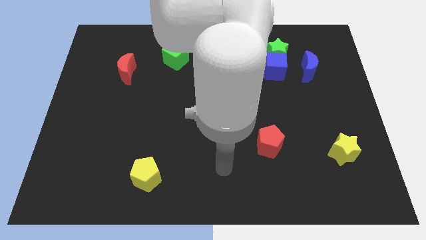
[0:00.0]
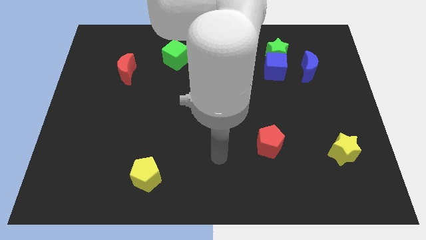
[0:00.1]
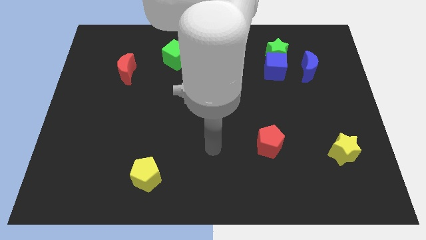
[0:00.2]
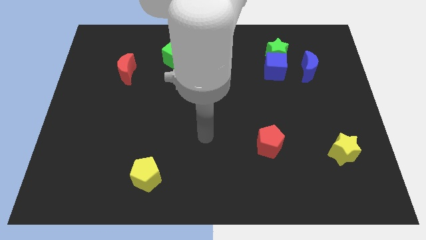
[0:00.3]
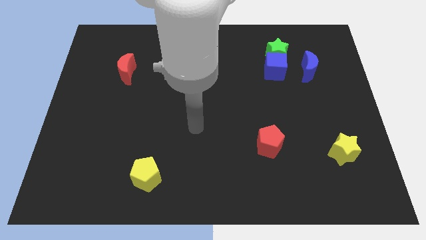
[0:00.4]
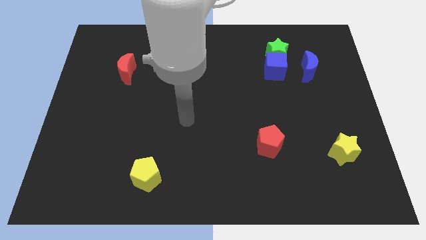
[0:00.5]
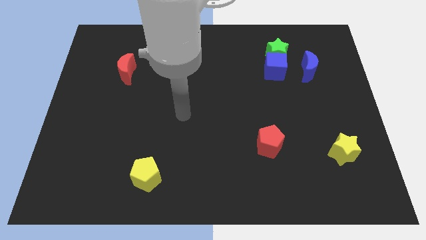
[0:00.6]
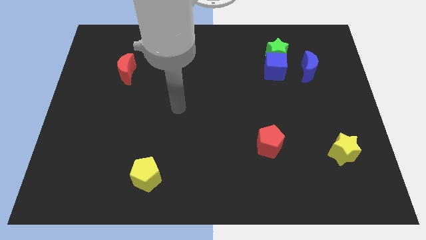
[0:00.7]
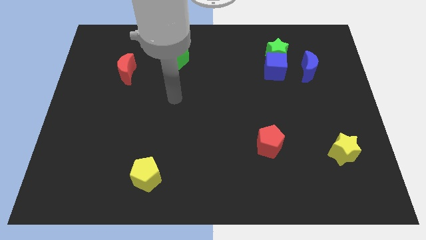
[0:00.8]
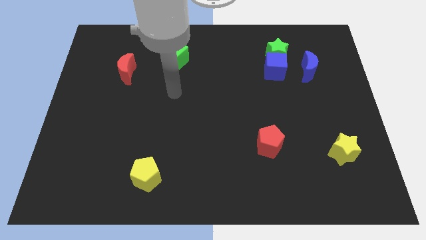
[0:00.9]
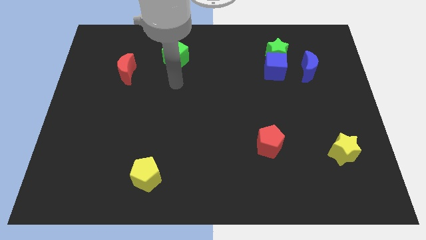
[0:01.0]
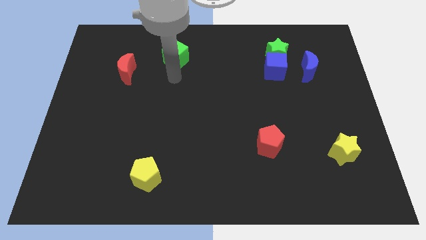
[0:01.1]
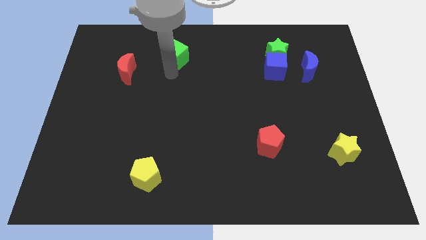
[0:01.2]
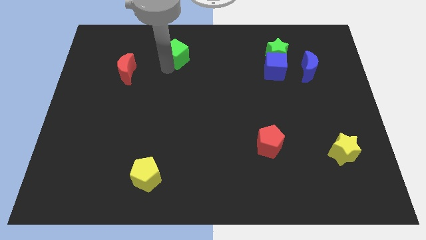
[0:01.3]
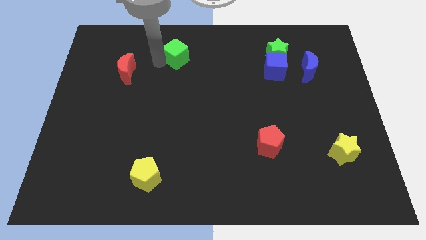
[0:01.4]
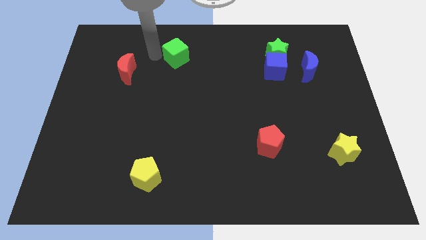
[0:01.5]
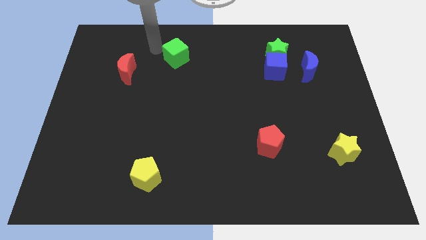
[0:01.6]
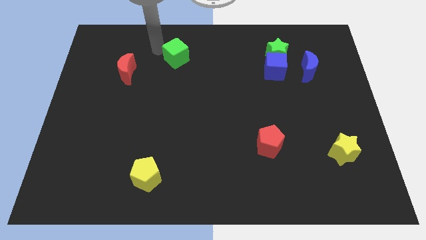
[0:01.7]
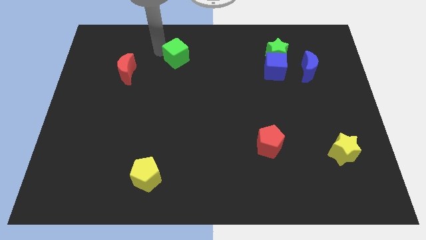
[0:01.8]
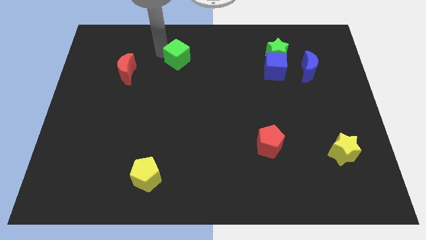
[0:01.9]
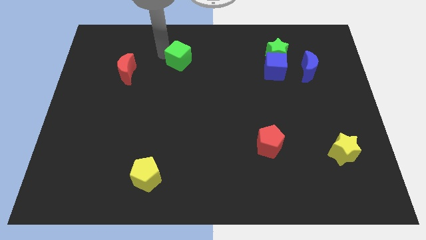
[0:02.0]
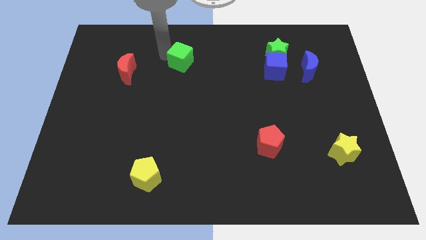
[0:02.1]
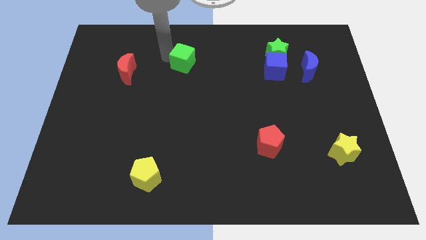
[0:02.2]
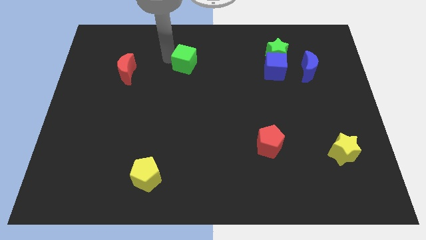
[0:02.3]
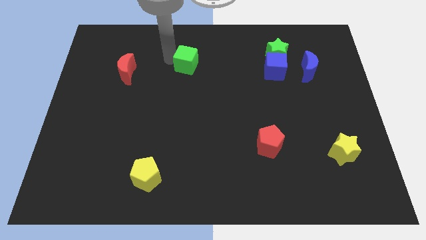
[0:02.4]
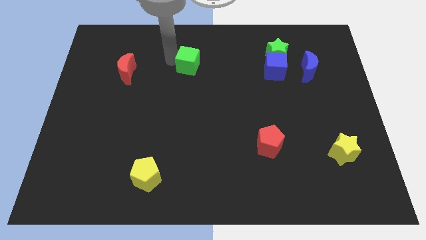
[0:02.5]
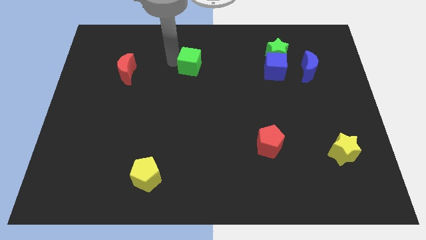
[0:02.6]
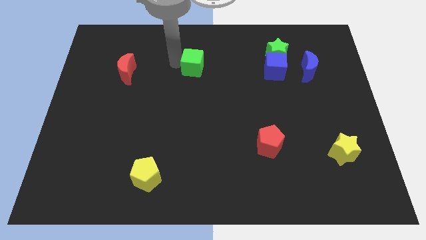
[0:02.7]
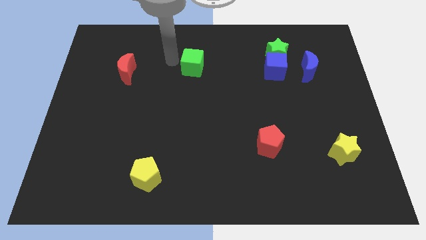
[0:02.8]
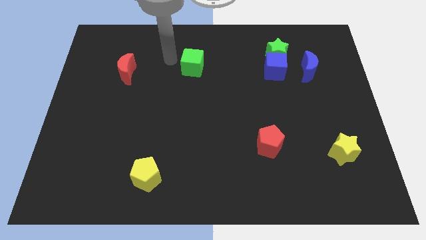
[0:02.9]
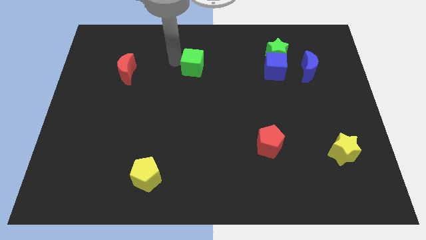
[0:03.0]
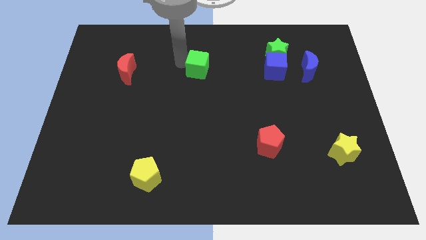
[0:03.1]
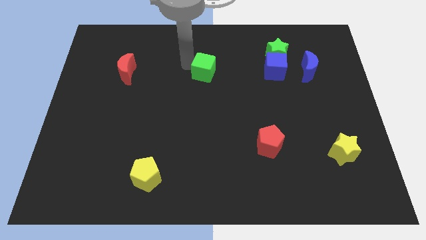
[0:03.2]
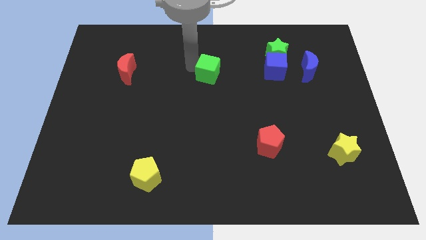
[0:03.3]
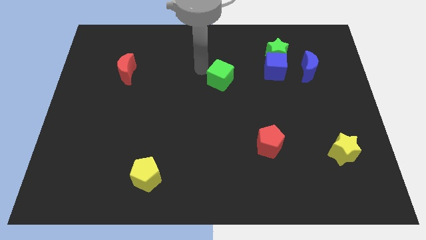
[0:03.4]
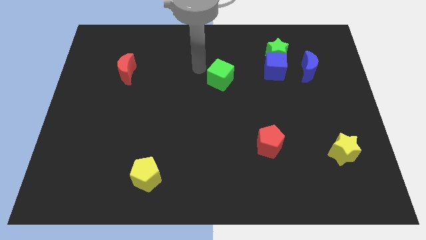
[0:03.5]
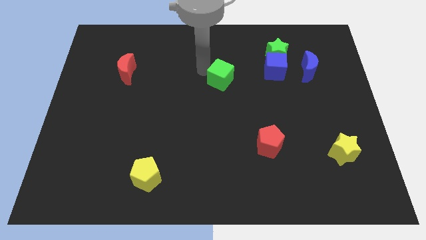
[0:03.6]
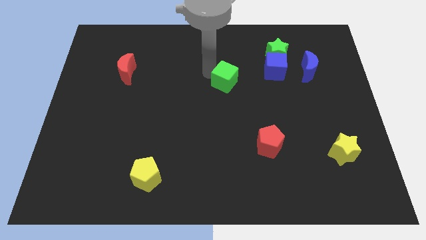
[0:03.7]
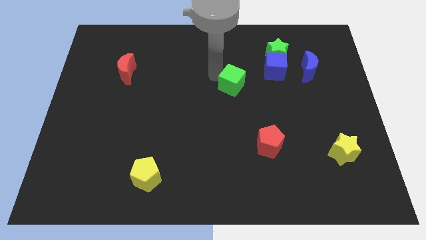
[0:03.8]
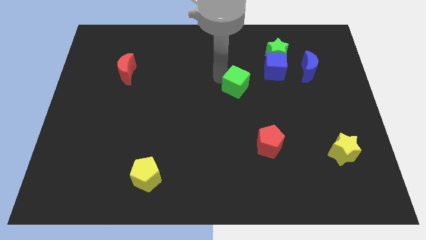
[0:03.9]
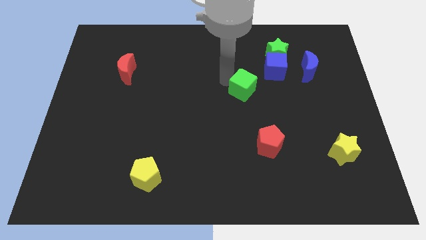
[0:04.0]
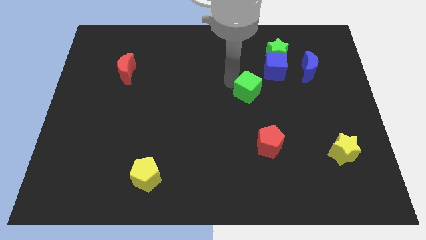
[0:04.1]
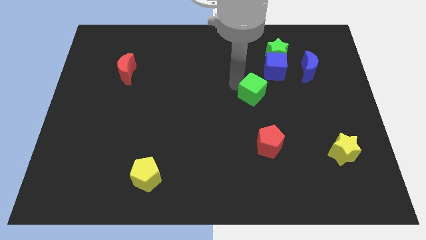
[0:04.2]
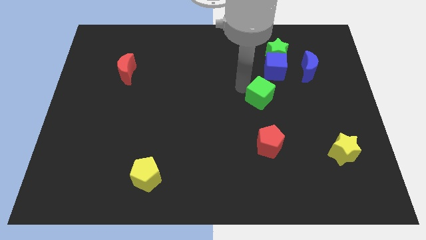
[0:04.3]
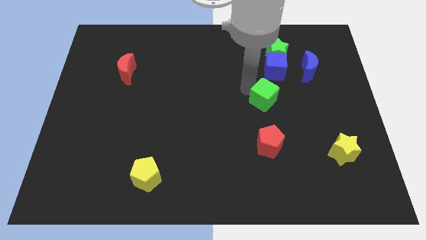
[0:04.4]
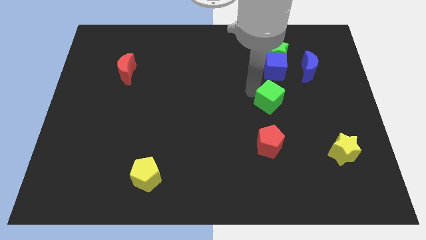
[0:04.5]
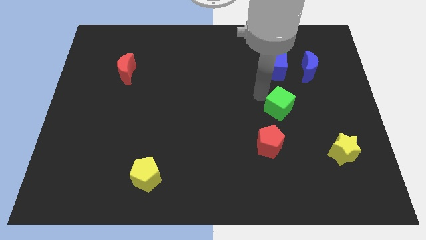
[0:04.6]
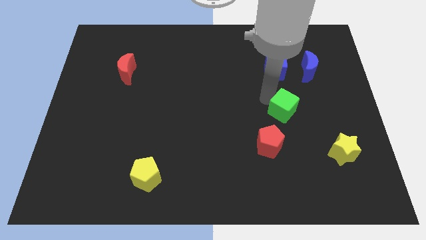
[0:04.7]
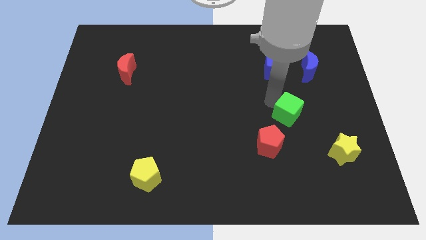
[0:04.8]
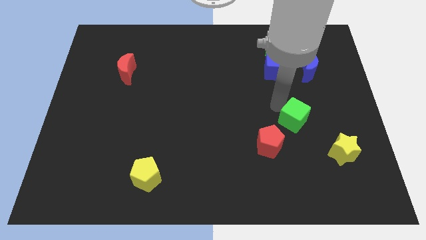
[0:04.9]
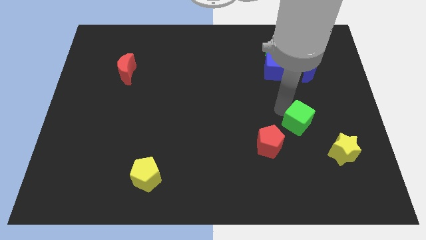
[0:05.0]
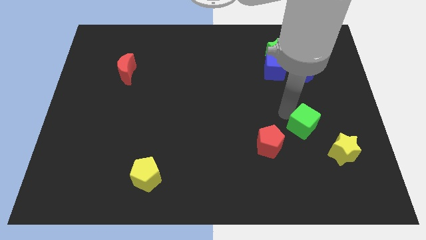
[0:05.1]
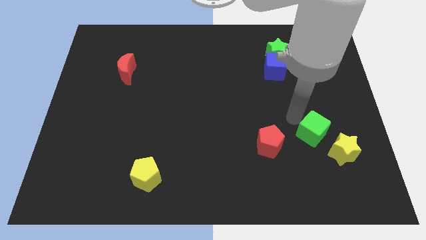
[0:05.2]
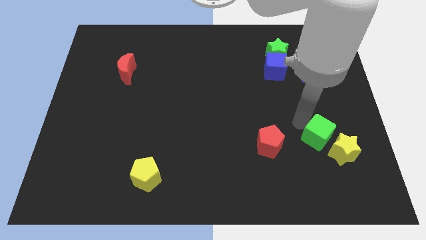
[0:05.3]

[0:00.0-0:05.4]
put the green cube to the yellow star

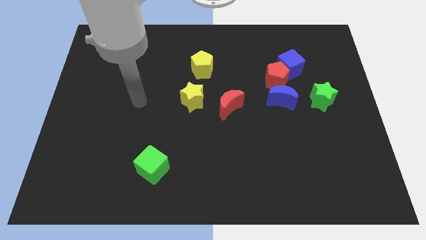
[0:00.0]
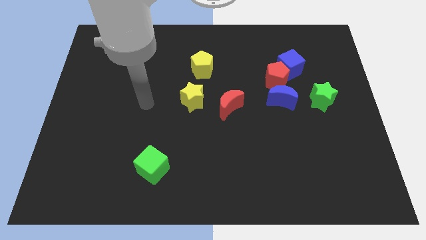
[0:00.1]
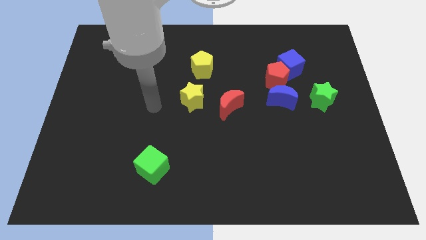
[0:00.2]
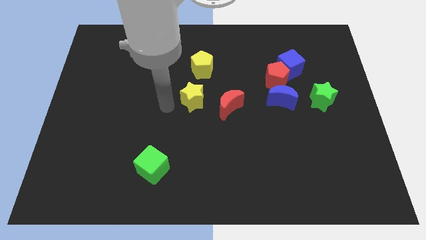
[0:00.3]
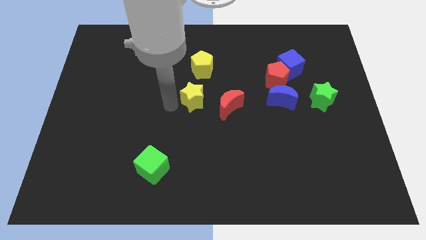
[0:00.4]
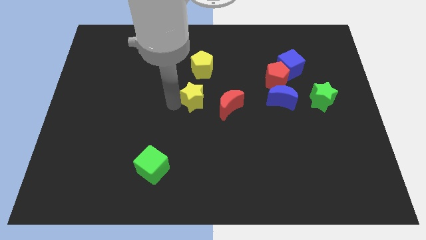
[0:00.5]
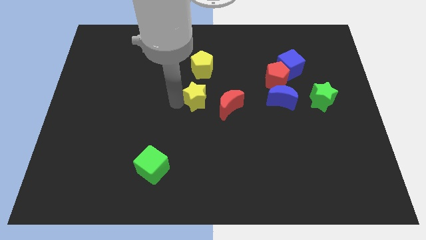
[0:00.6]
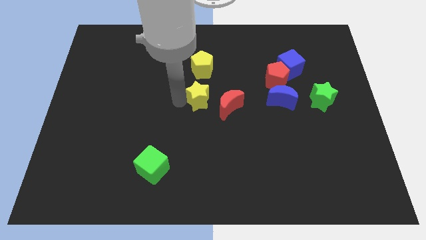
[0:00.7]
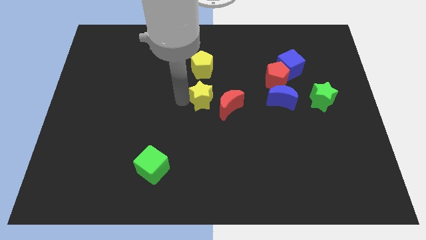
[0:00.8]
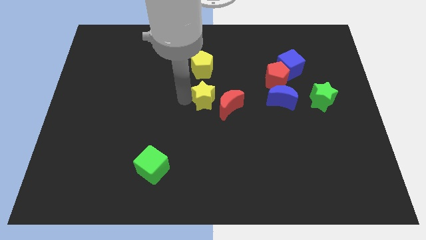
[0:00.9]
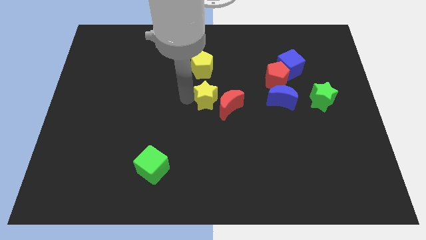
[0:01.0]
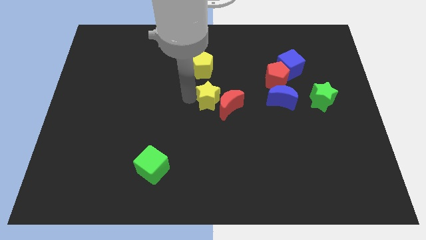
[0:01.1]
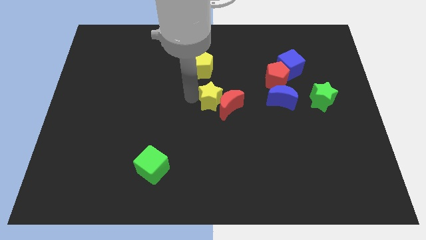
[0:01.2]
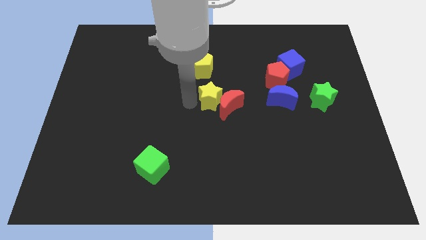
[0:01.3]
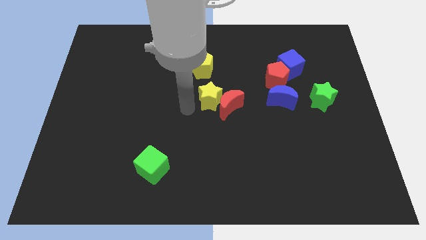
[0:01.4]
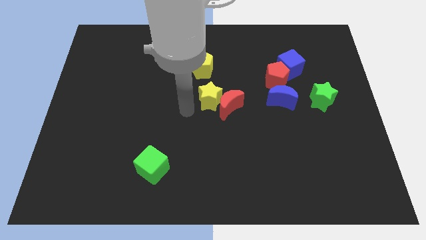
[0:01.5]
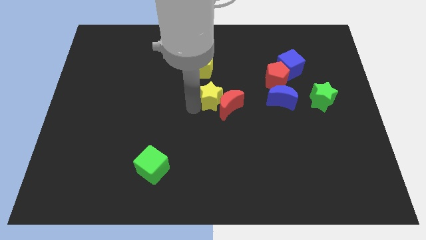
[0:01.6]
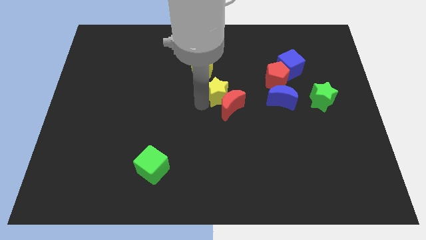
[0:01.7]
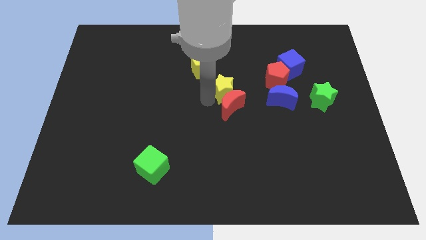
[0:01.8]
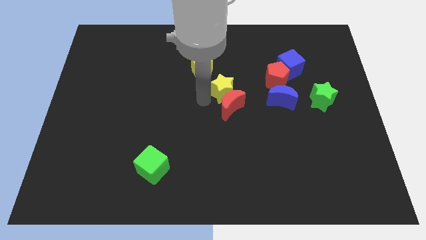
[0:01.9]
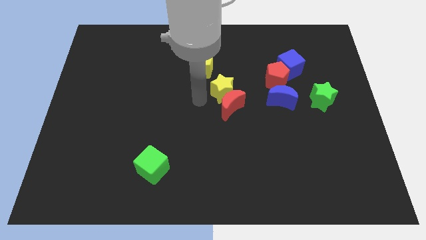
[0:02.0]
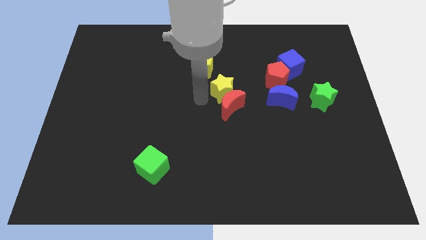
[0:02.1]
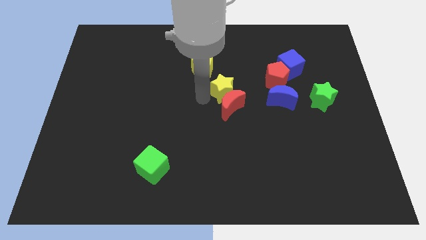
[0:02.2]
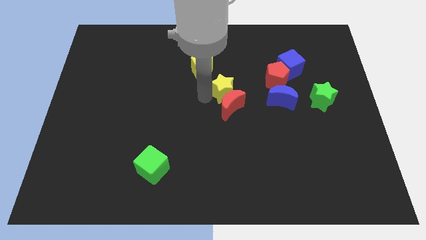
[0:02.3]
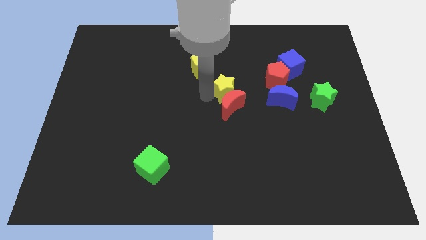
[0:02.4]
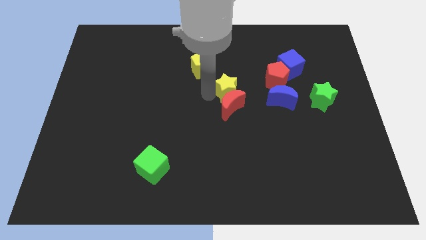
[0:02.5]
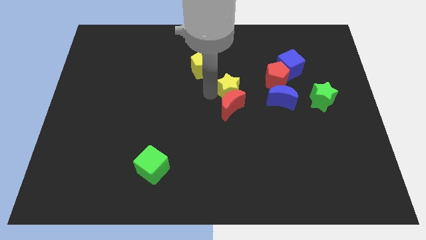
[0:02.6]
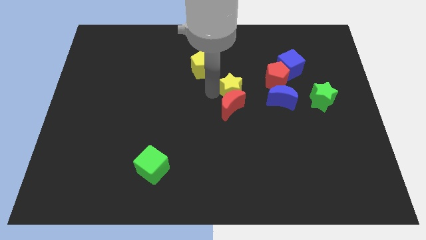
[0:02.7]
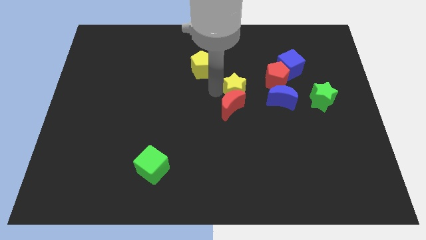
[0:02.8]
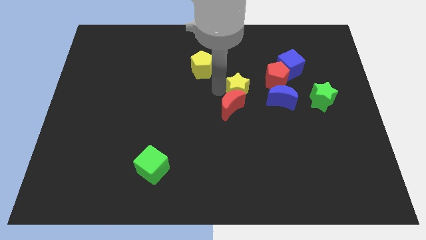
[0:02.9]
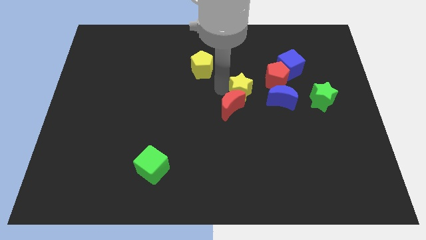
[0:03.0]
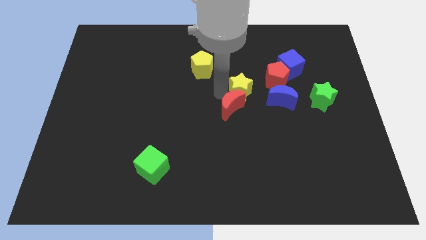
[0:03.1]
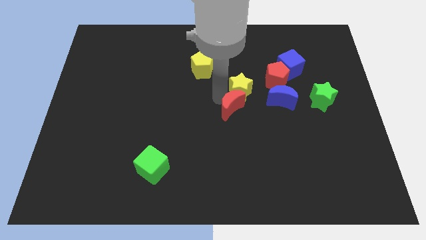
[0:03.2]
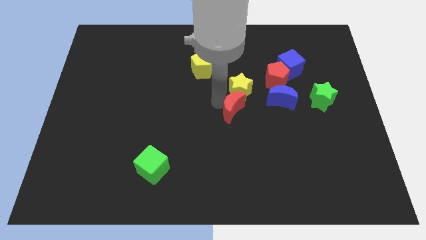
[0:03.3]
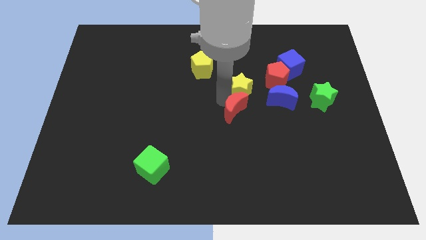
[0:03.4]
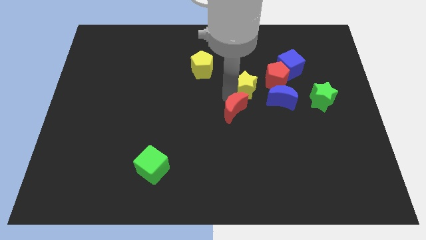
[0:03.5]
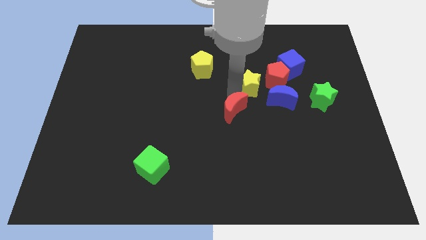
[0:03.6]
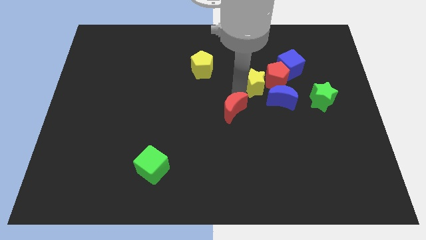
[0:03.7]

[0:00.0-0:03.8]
slide the yellow star close to the red pentagon
